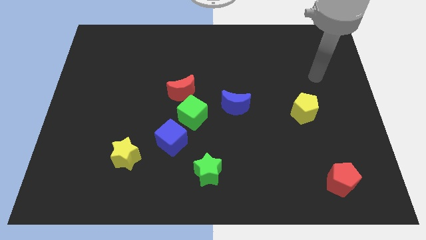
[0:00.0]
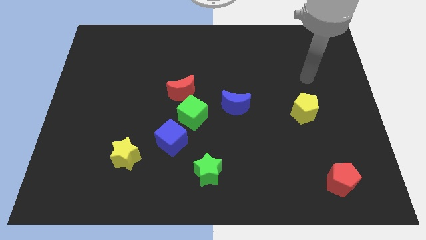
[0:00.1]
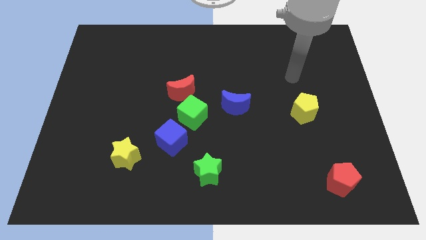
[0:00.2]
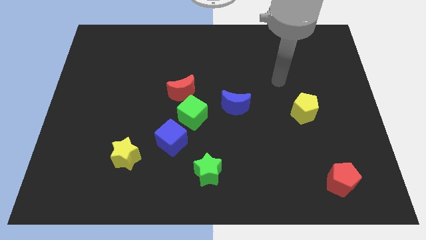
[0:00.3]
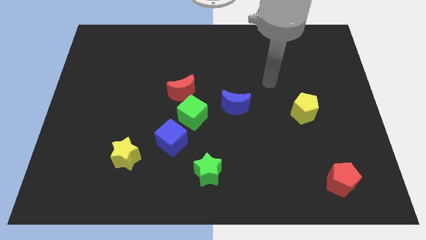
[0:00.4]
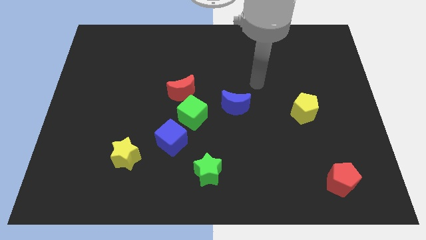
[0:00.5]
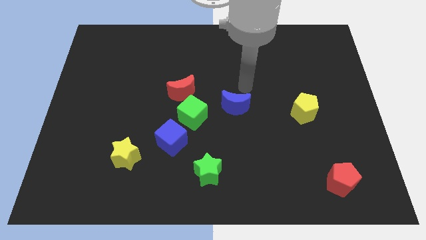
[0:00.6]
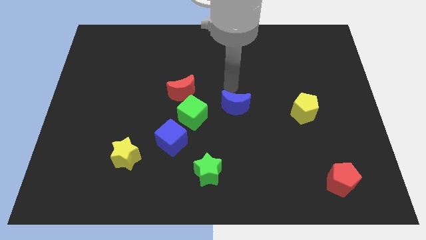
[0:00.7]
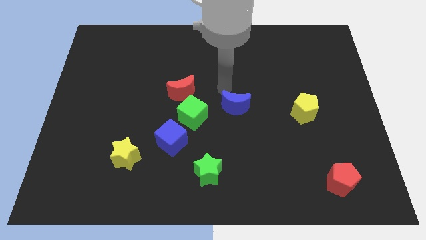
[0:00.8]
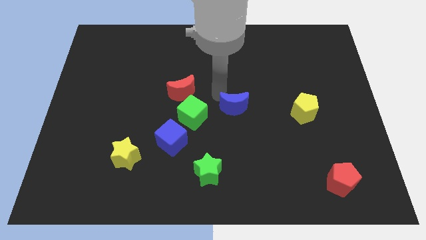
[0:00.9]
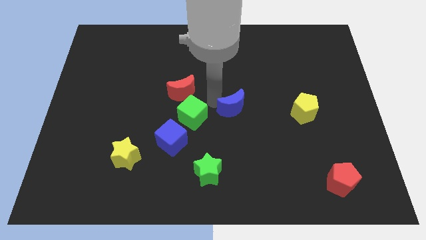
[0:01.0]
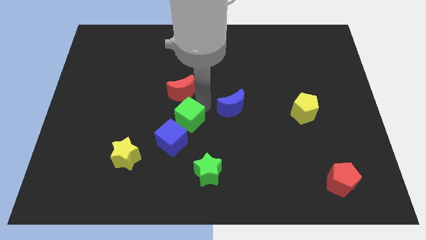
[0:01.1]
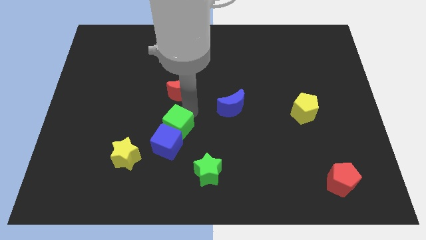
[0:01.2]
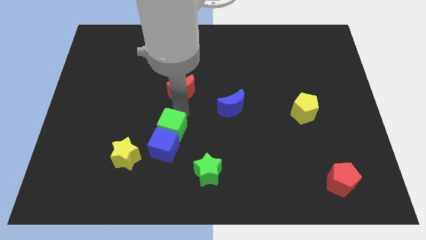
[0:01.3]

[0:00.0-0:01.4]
pull the red moon apart from the green cube

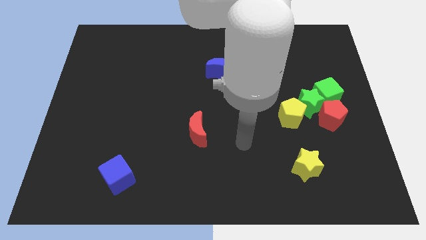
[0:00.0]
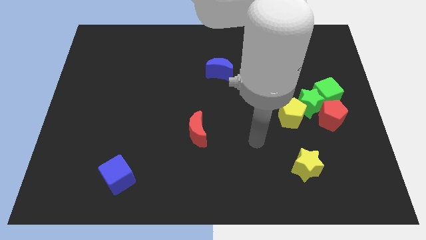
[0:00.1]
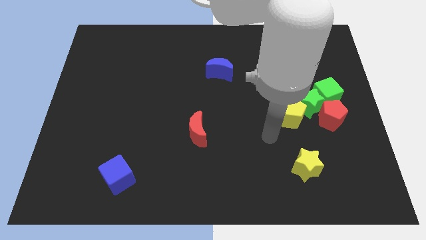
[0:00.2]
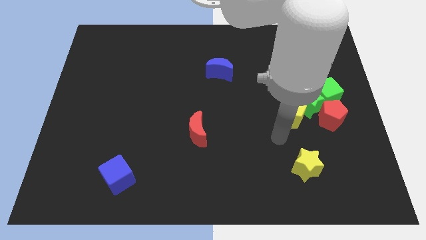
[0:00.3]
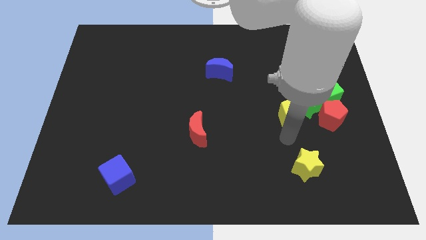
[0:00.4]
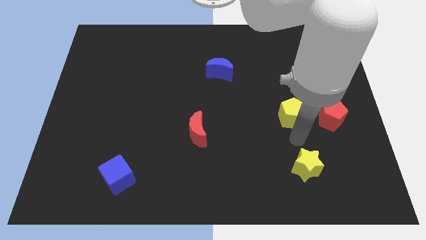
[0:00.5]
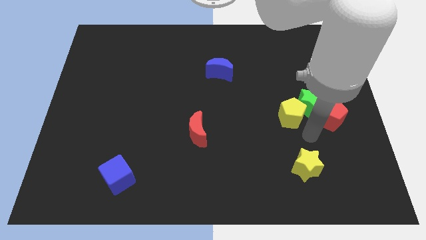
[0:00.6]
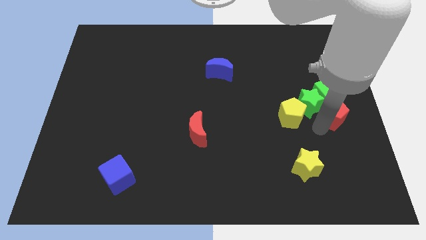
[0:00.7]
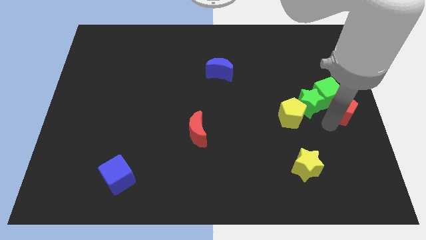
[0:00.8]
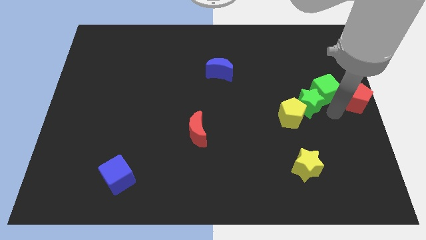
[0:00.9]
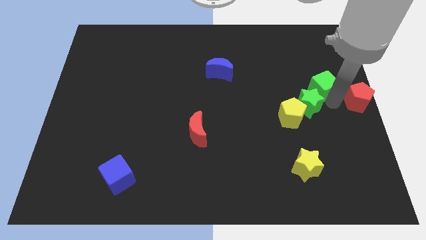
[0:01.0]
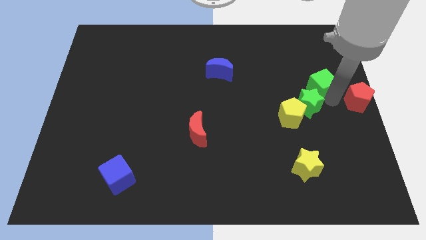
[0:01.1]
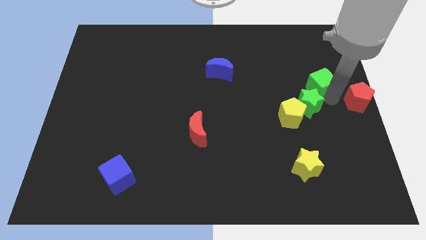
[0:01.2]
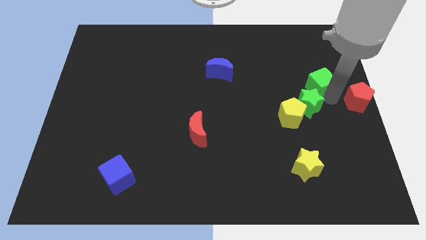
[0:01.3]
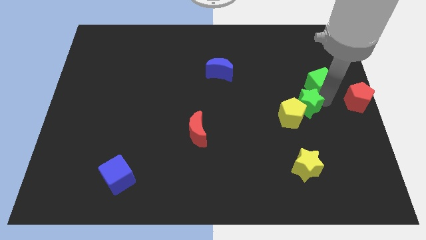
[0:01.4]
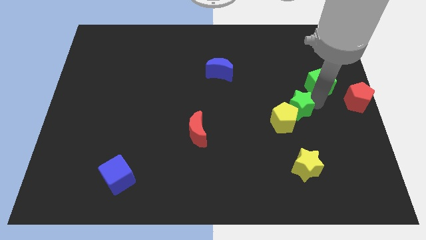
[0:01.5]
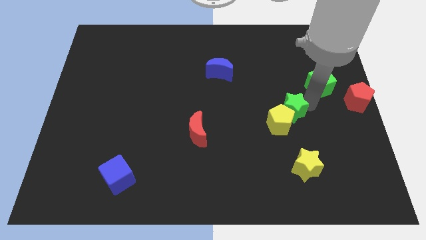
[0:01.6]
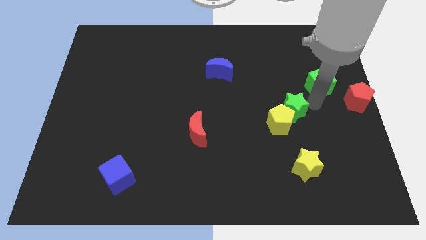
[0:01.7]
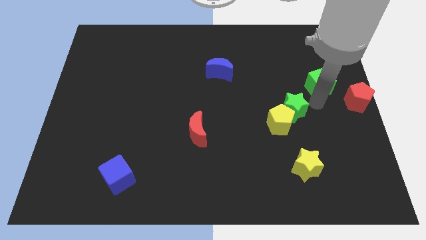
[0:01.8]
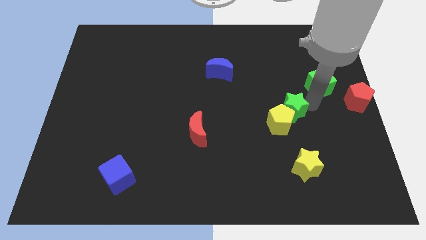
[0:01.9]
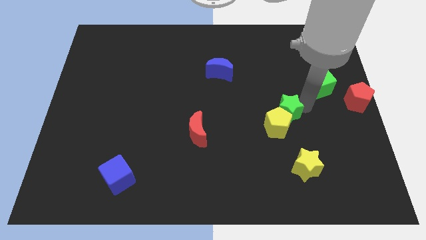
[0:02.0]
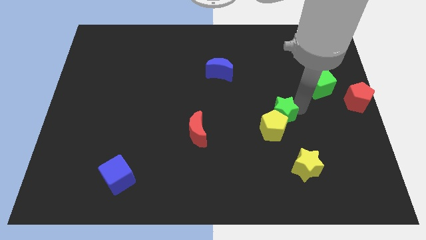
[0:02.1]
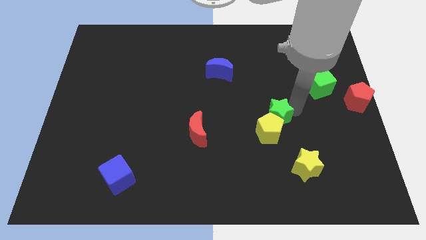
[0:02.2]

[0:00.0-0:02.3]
move the green star away from the yellow pentagon, green cube, and red pentagon

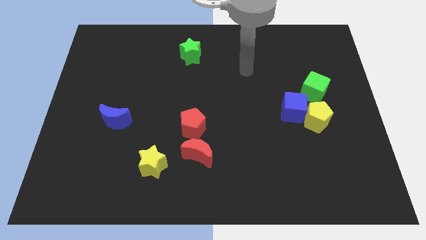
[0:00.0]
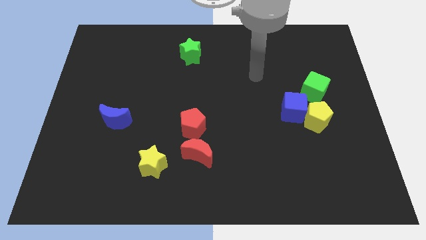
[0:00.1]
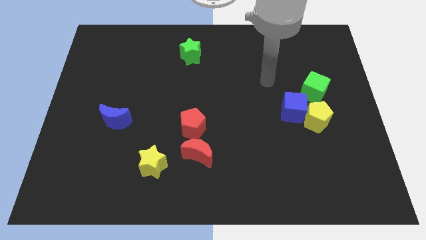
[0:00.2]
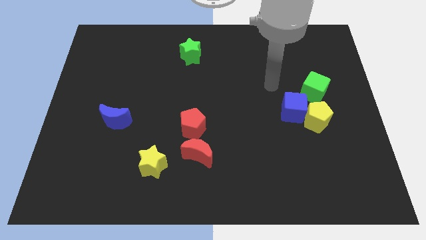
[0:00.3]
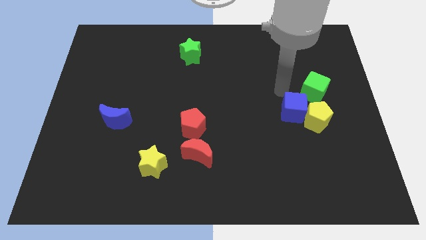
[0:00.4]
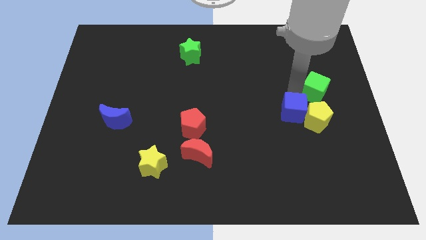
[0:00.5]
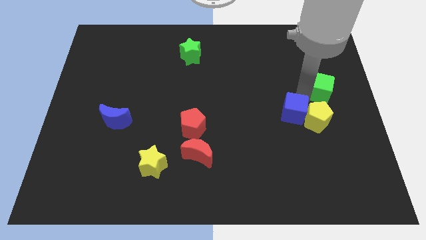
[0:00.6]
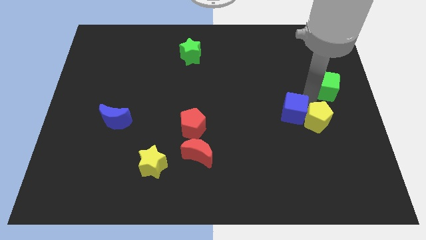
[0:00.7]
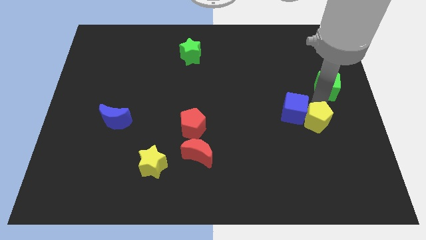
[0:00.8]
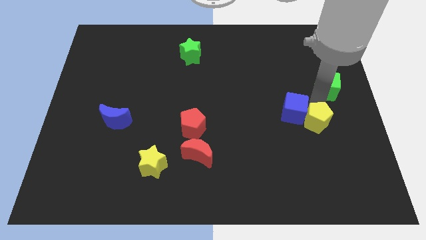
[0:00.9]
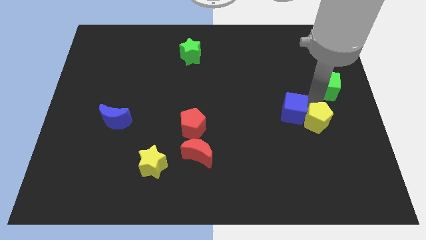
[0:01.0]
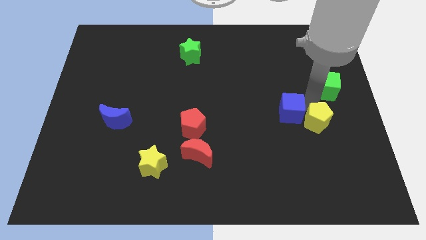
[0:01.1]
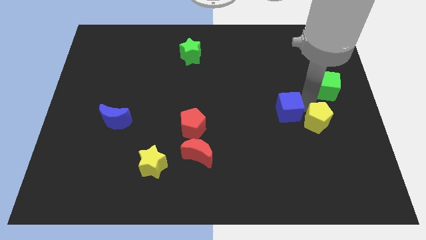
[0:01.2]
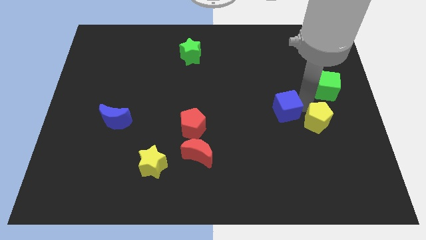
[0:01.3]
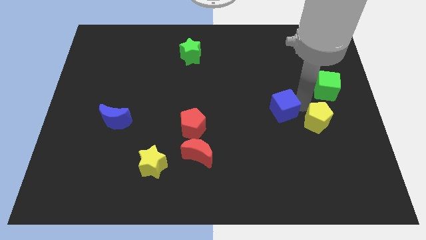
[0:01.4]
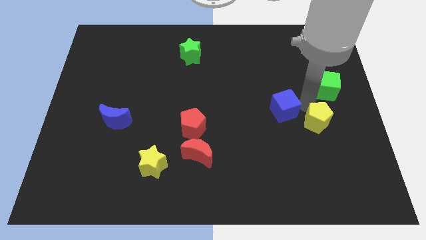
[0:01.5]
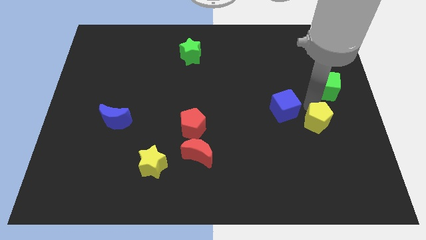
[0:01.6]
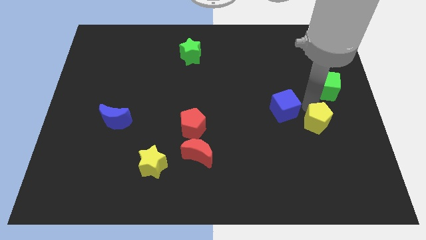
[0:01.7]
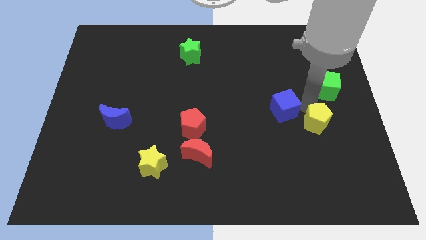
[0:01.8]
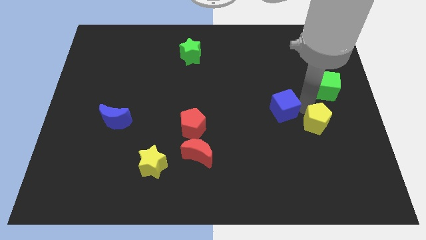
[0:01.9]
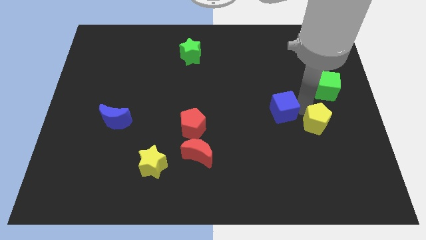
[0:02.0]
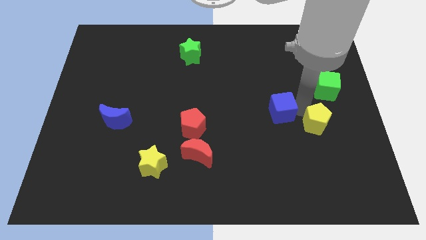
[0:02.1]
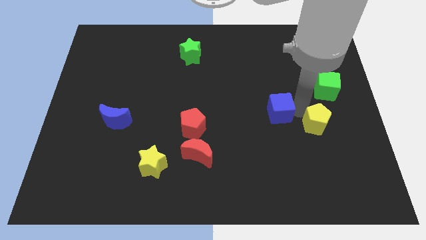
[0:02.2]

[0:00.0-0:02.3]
pull the blue cube apart from the yellow pentagon and green cube

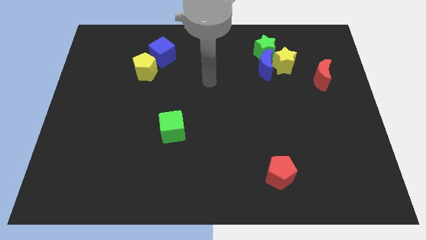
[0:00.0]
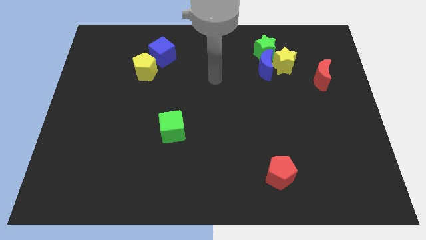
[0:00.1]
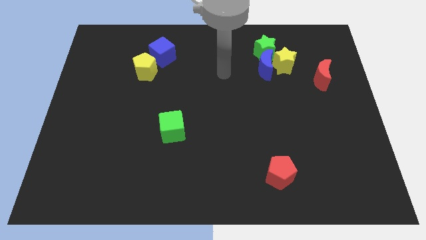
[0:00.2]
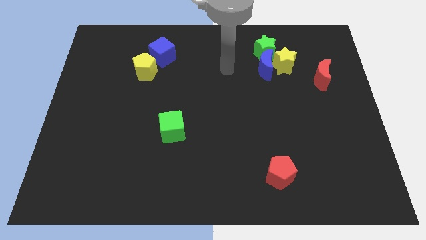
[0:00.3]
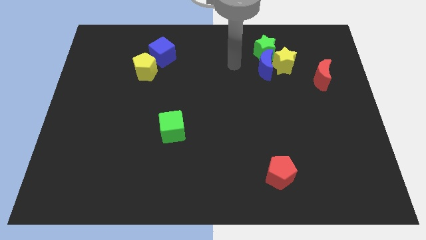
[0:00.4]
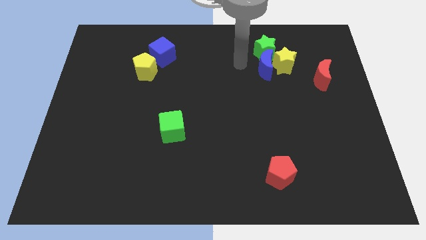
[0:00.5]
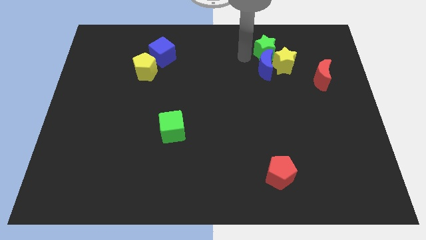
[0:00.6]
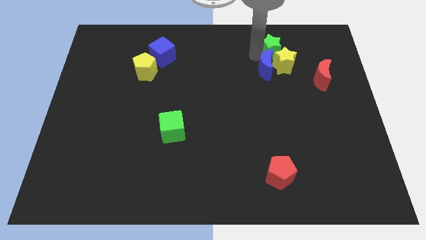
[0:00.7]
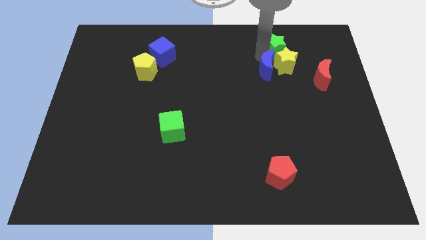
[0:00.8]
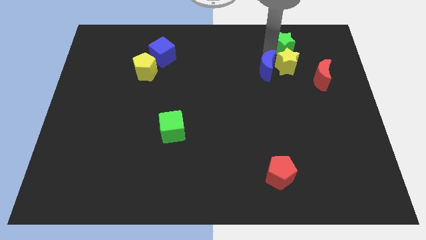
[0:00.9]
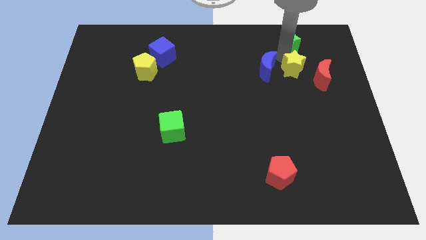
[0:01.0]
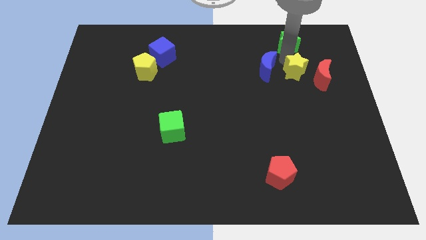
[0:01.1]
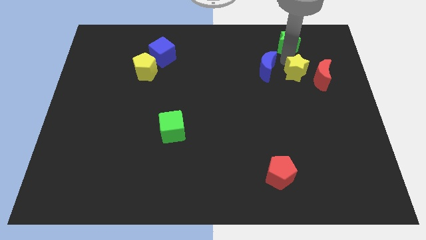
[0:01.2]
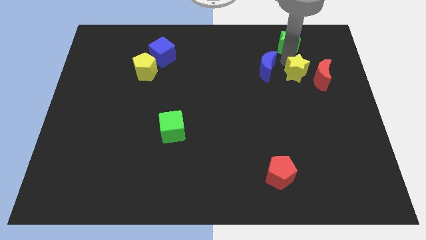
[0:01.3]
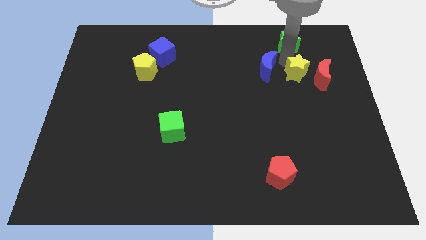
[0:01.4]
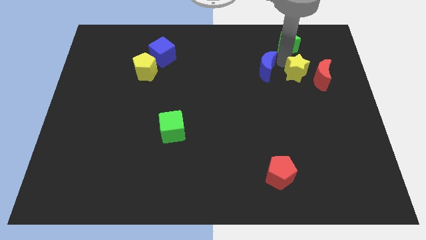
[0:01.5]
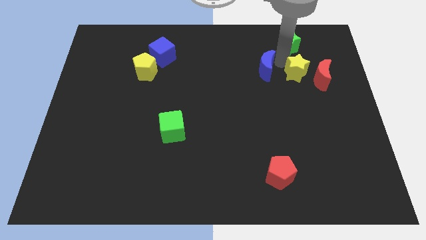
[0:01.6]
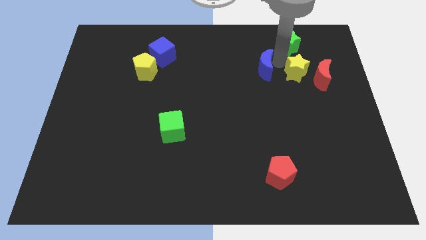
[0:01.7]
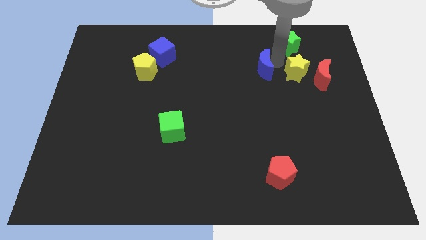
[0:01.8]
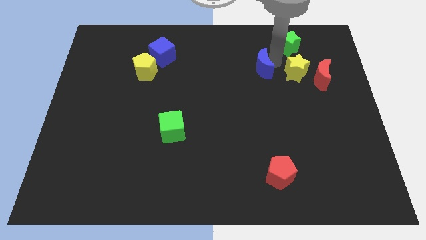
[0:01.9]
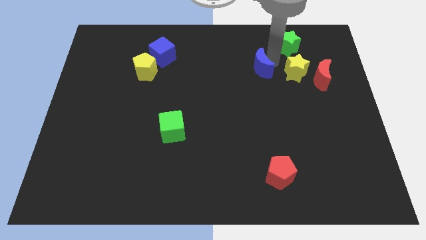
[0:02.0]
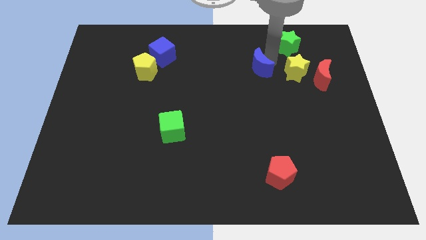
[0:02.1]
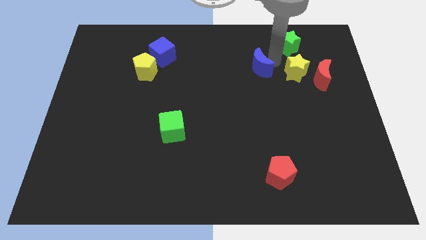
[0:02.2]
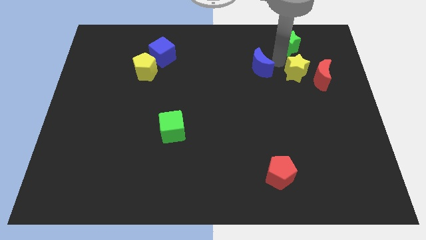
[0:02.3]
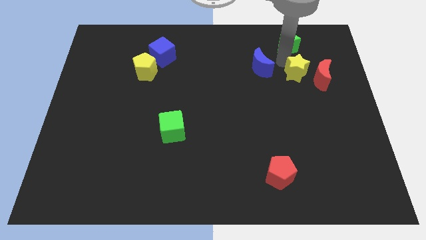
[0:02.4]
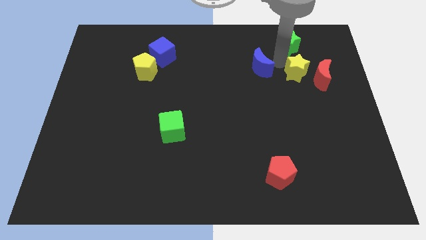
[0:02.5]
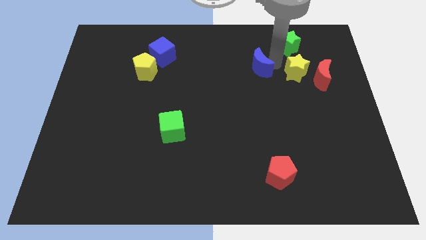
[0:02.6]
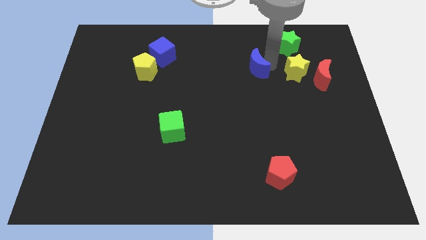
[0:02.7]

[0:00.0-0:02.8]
separate the blue moon from the yellow star and green star

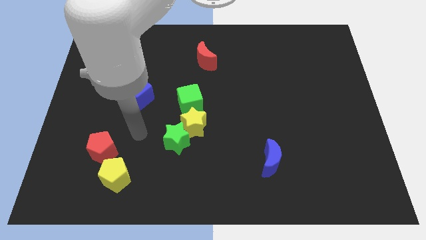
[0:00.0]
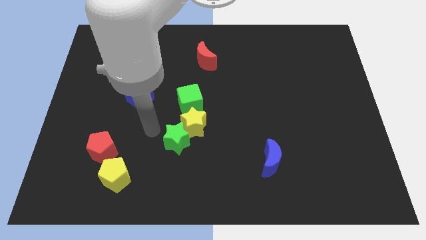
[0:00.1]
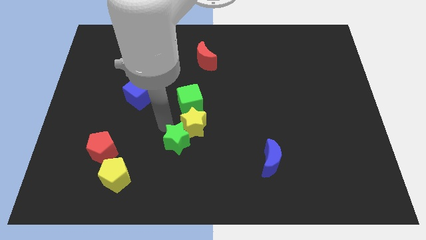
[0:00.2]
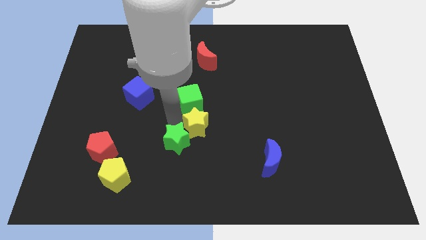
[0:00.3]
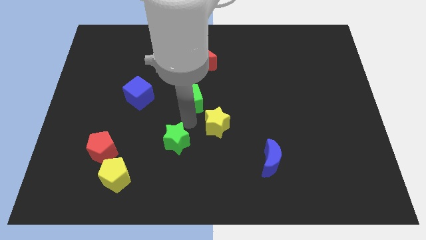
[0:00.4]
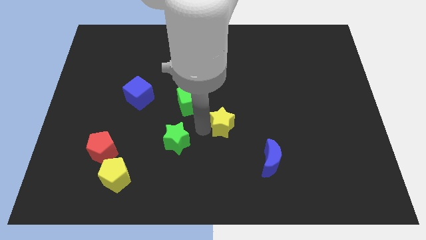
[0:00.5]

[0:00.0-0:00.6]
separate the green star from the yellow star
